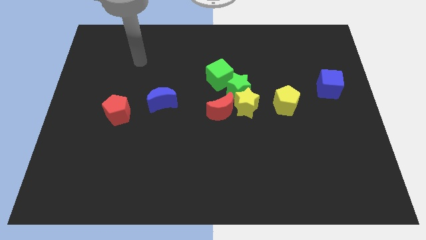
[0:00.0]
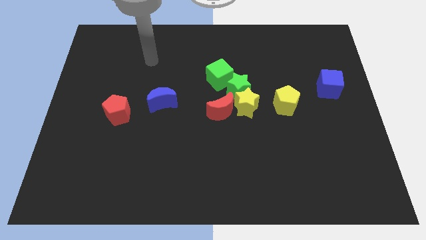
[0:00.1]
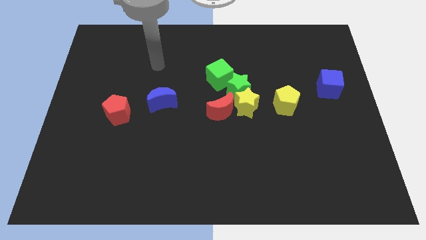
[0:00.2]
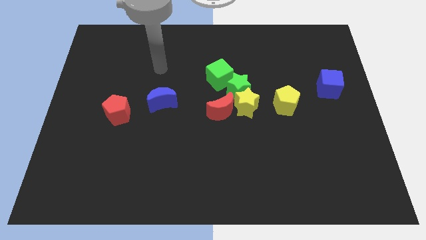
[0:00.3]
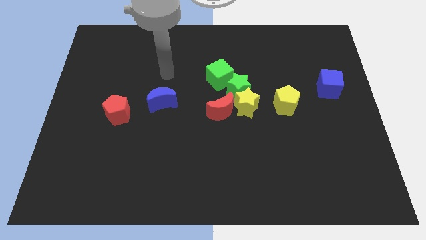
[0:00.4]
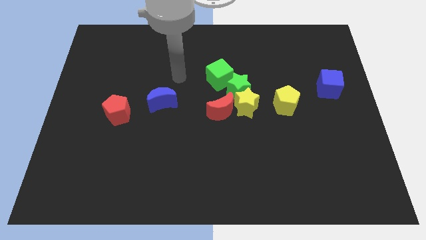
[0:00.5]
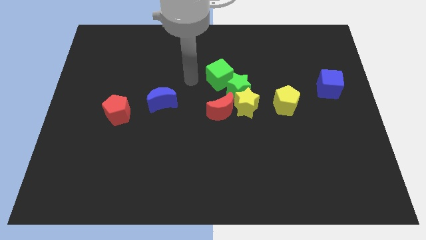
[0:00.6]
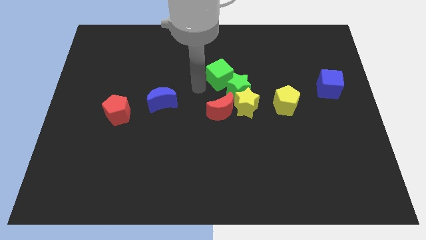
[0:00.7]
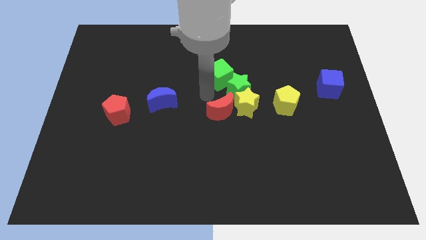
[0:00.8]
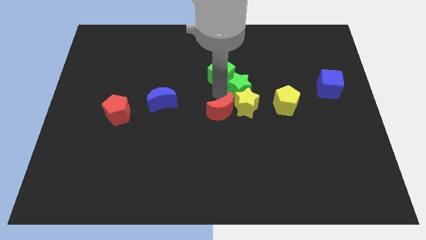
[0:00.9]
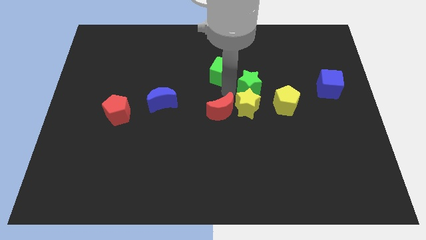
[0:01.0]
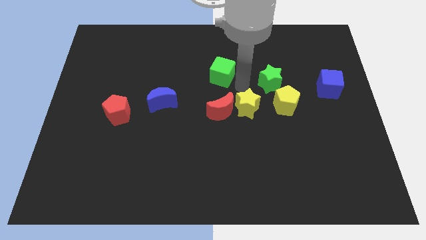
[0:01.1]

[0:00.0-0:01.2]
separate the green cube from the green star

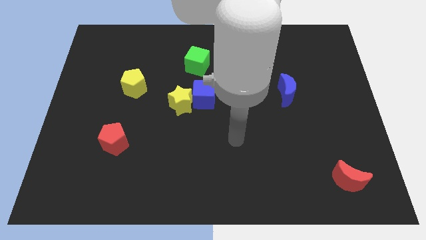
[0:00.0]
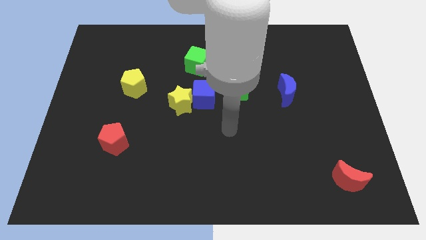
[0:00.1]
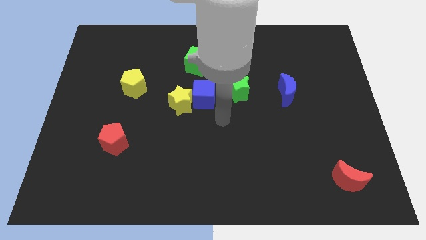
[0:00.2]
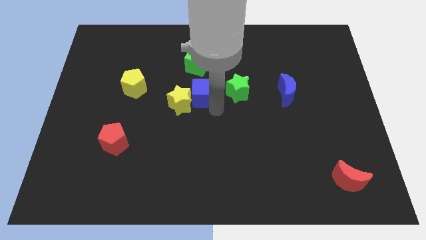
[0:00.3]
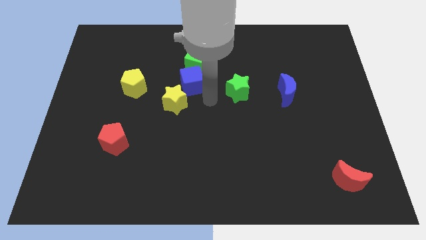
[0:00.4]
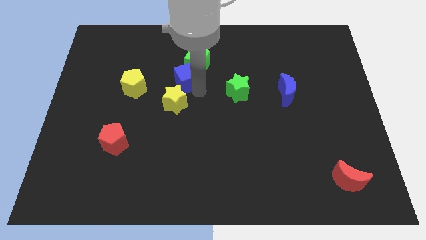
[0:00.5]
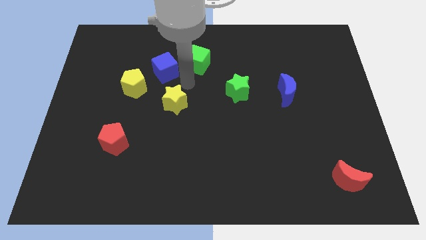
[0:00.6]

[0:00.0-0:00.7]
move the yellow star away from the blue cube

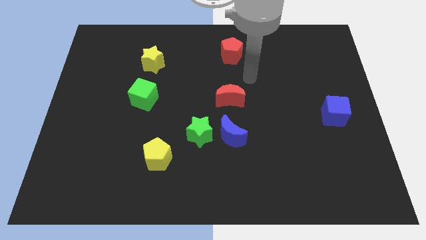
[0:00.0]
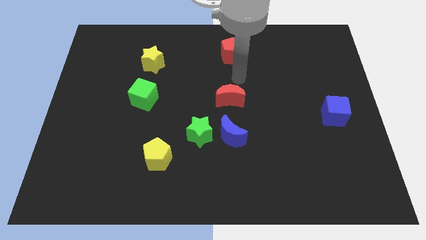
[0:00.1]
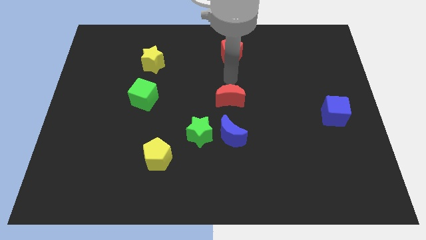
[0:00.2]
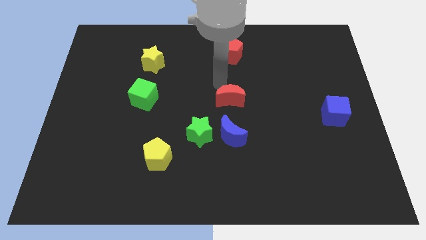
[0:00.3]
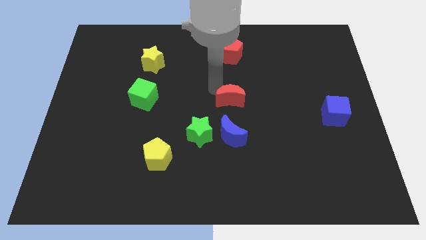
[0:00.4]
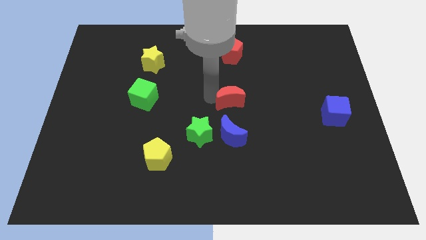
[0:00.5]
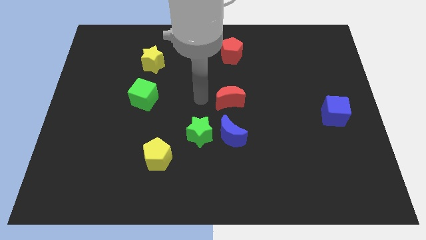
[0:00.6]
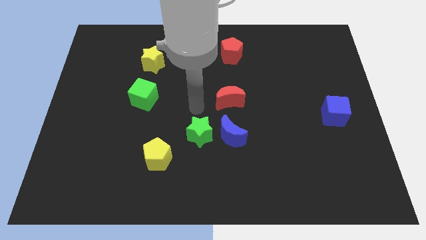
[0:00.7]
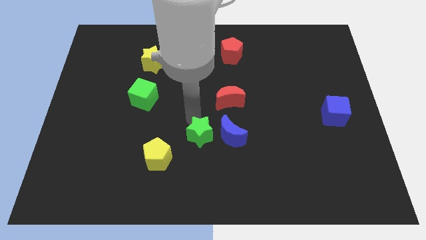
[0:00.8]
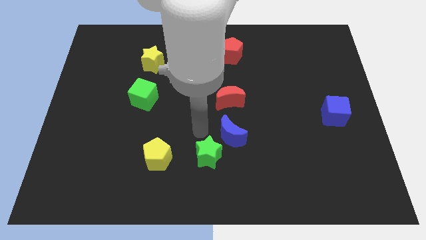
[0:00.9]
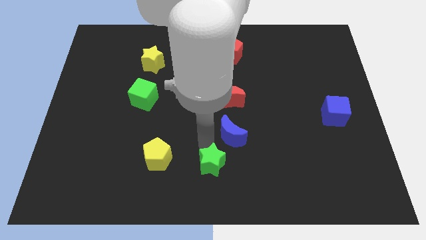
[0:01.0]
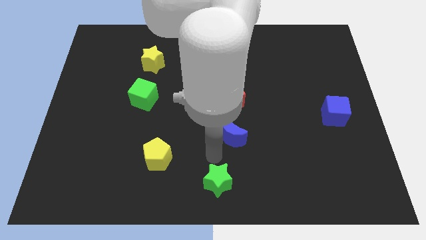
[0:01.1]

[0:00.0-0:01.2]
pull the blue moon apart from the green star

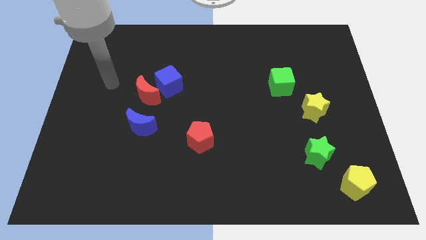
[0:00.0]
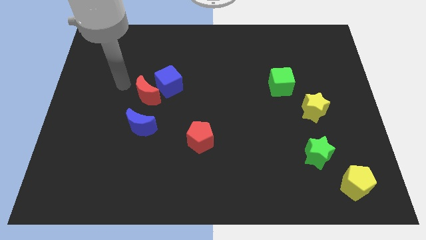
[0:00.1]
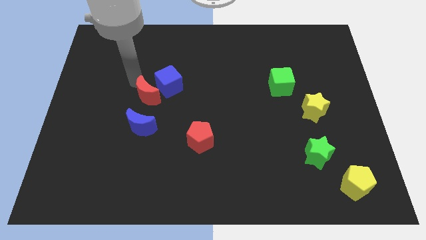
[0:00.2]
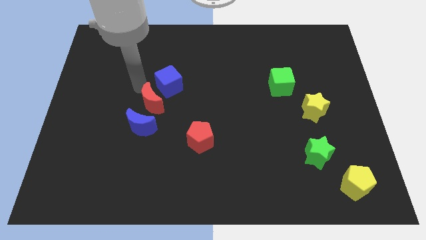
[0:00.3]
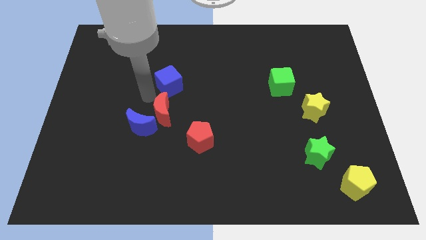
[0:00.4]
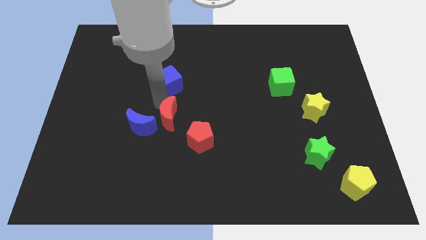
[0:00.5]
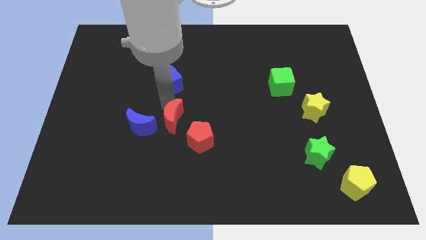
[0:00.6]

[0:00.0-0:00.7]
move the blue cube away from the red moon

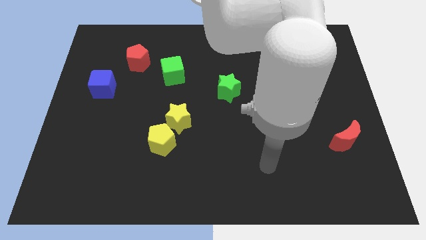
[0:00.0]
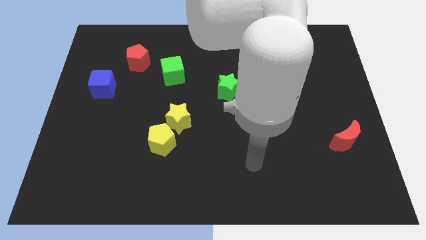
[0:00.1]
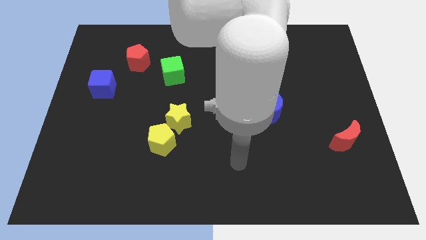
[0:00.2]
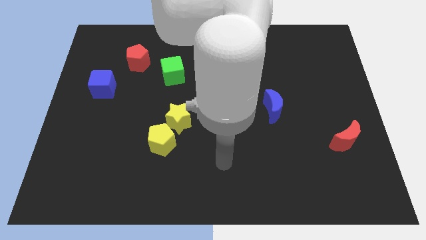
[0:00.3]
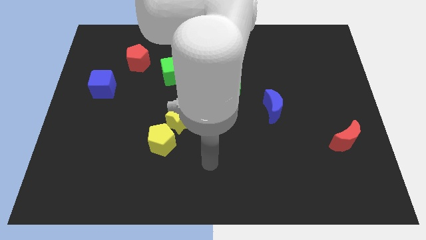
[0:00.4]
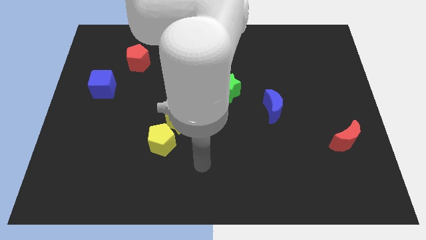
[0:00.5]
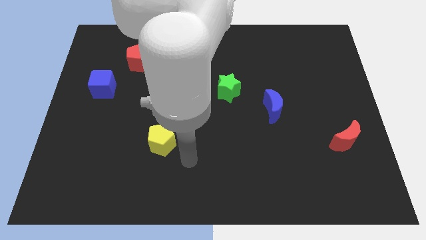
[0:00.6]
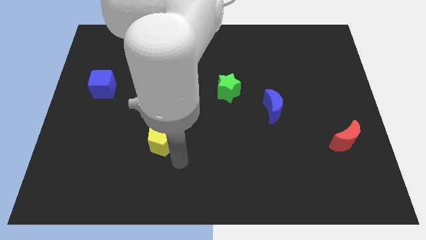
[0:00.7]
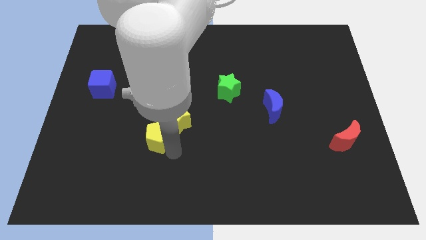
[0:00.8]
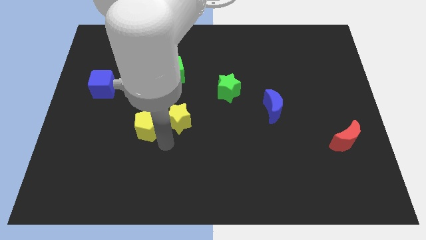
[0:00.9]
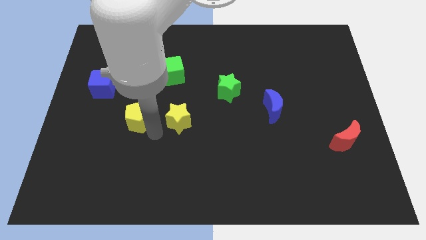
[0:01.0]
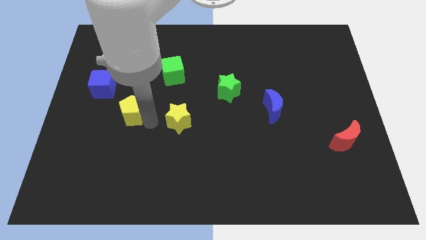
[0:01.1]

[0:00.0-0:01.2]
pull the yellow star apart from the yellow pentagon

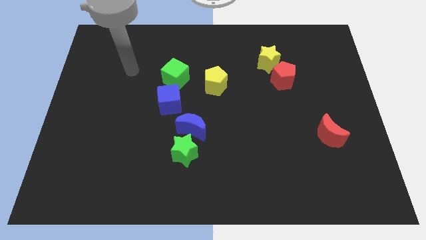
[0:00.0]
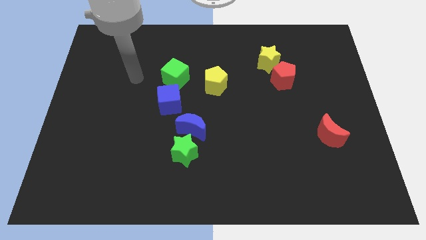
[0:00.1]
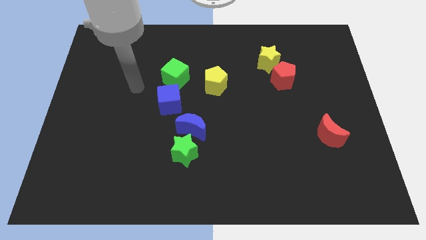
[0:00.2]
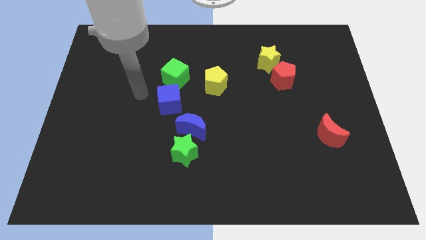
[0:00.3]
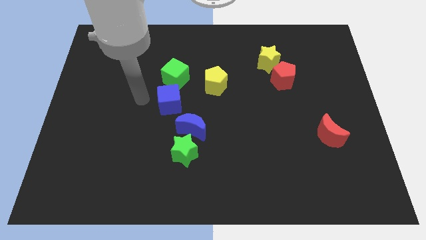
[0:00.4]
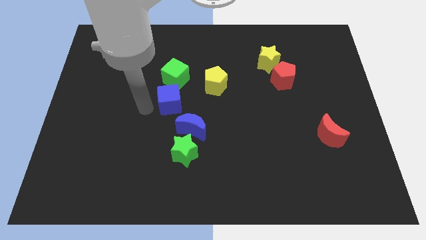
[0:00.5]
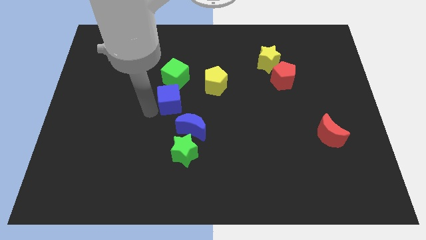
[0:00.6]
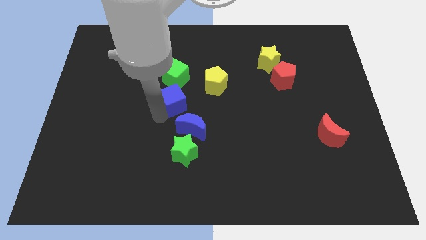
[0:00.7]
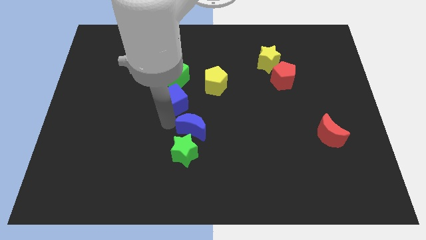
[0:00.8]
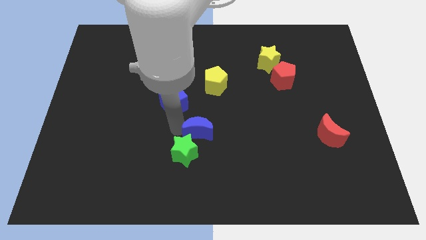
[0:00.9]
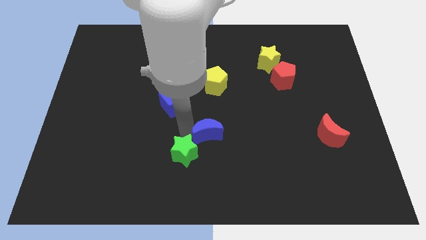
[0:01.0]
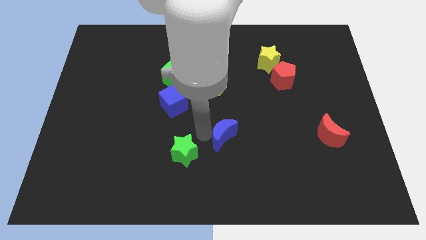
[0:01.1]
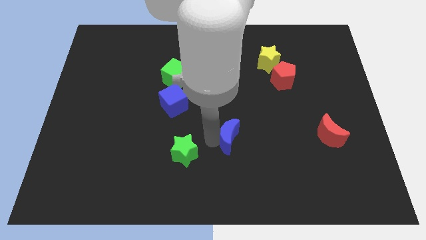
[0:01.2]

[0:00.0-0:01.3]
pull the green star apart from the blue moon

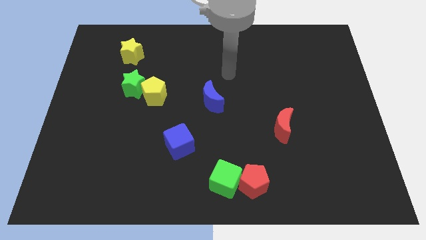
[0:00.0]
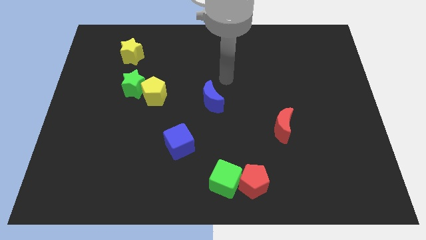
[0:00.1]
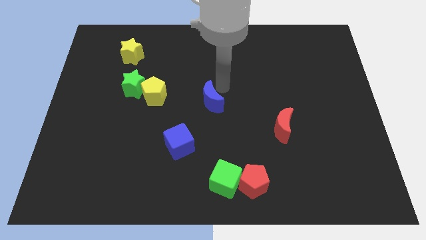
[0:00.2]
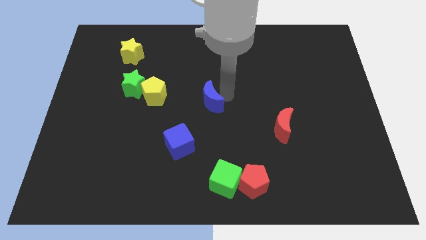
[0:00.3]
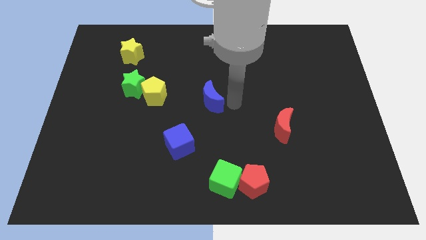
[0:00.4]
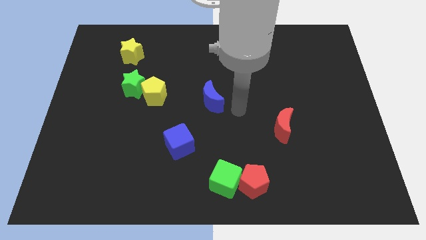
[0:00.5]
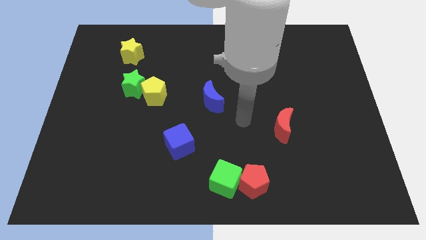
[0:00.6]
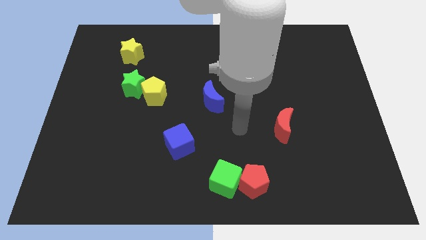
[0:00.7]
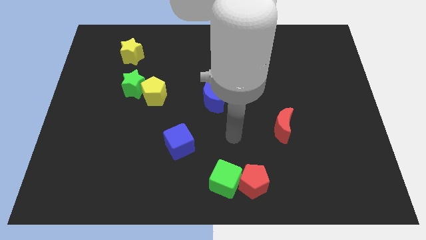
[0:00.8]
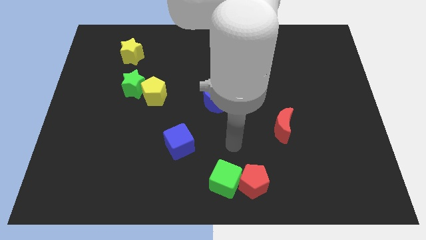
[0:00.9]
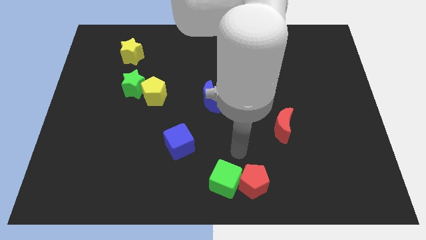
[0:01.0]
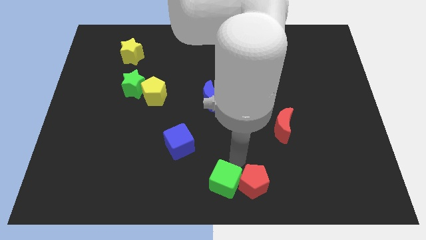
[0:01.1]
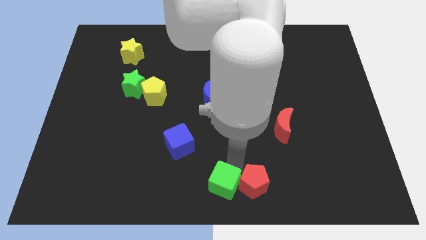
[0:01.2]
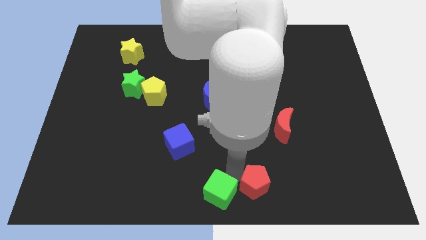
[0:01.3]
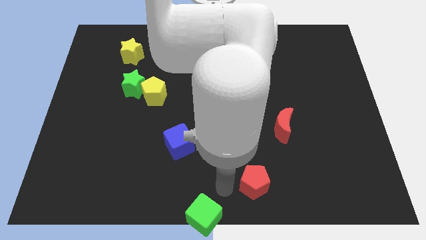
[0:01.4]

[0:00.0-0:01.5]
separate the red pentagon from the green cube

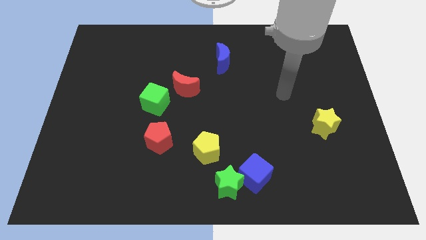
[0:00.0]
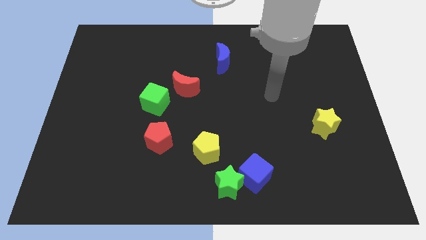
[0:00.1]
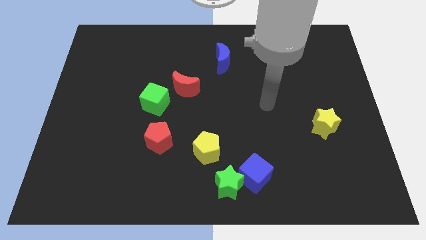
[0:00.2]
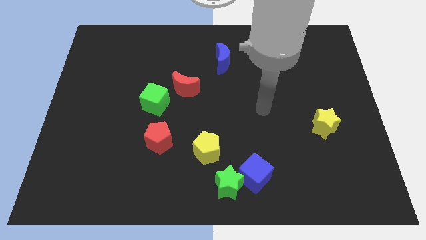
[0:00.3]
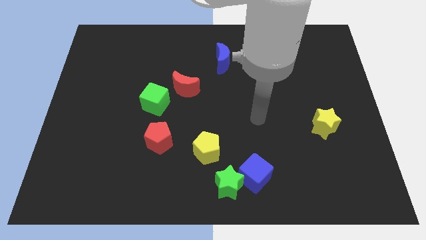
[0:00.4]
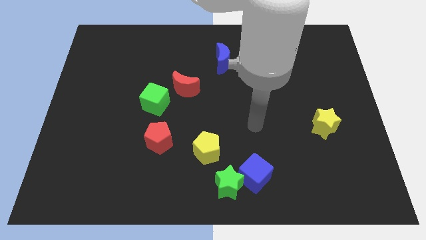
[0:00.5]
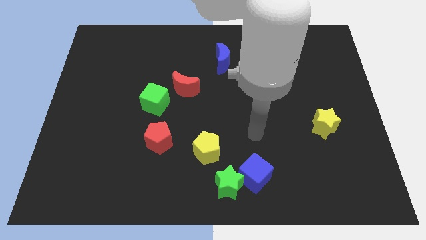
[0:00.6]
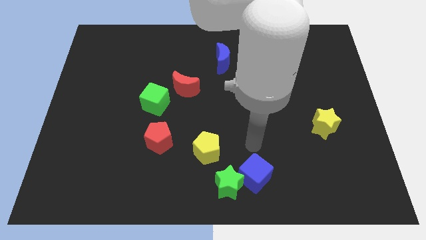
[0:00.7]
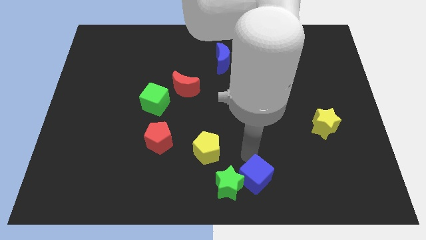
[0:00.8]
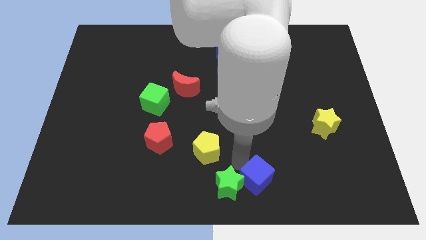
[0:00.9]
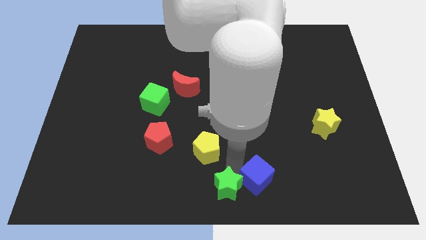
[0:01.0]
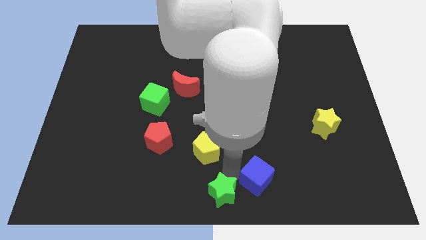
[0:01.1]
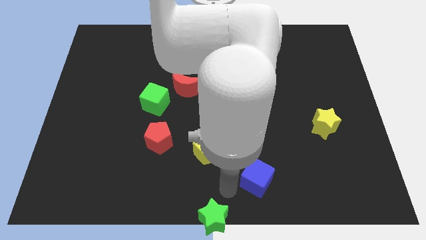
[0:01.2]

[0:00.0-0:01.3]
move the blue cube away from the green star
